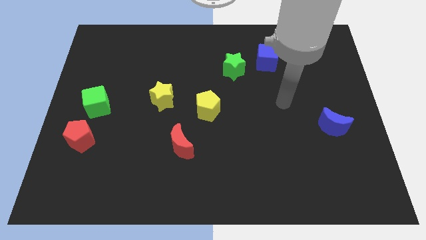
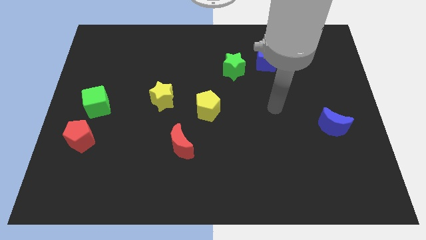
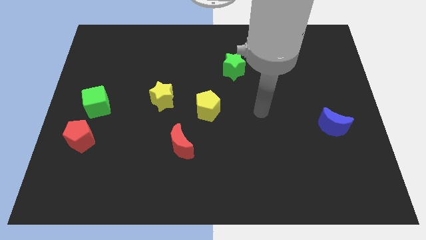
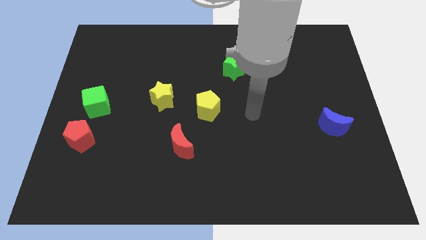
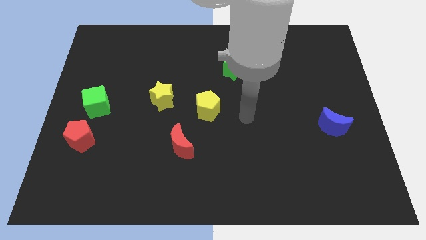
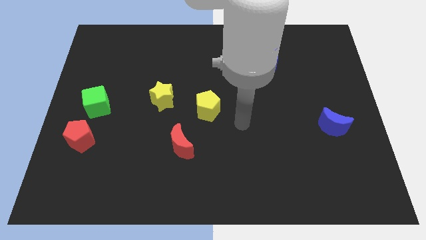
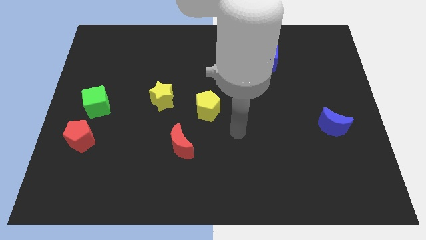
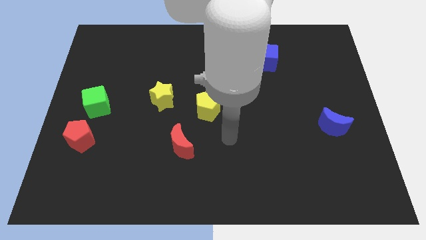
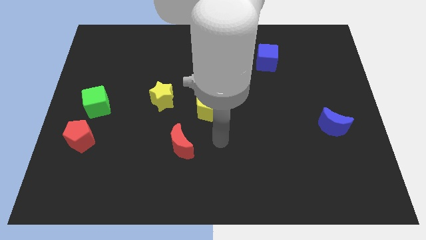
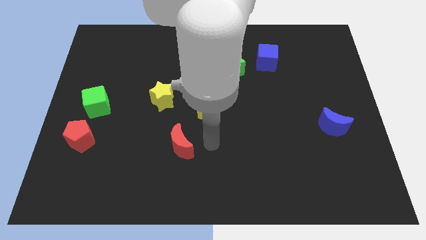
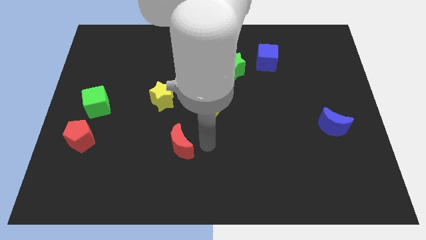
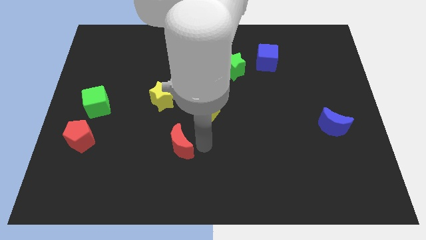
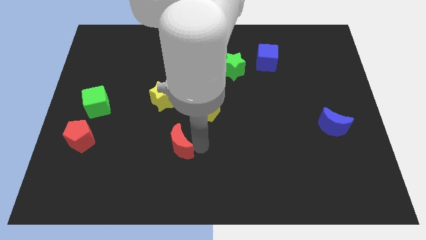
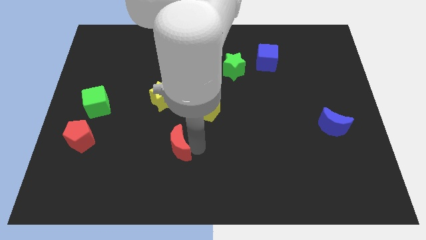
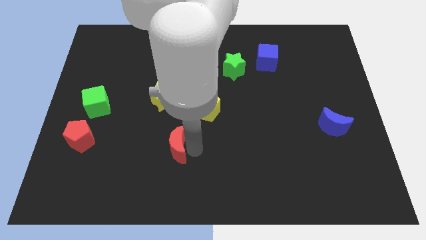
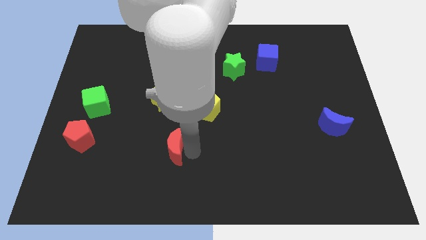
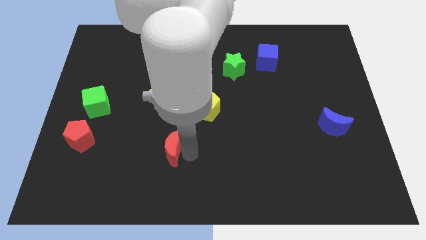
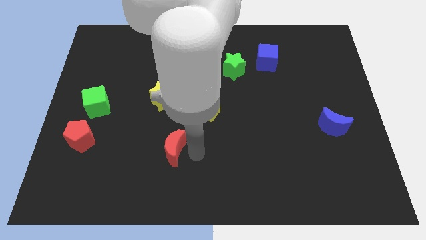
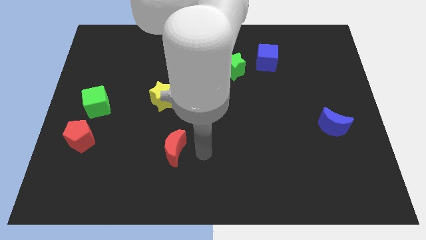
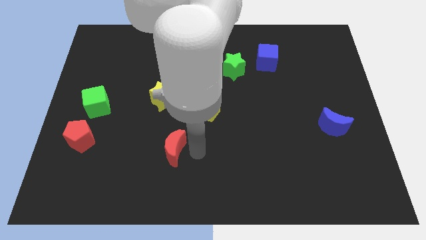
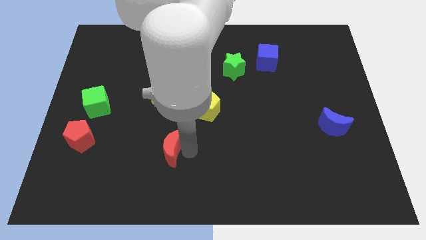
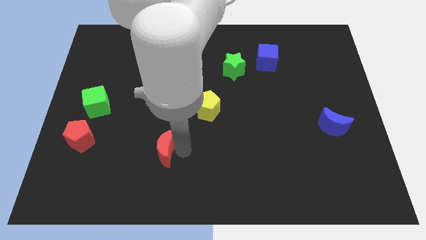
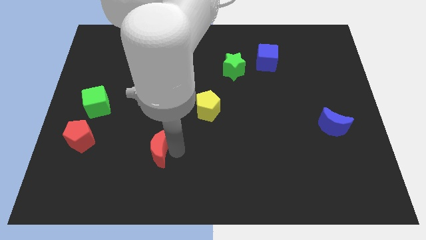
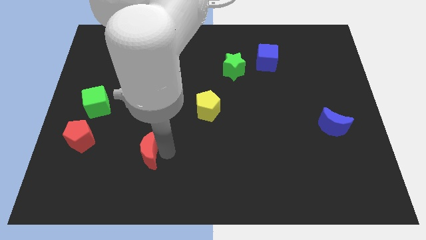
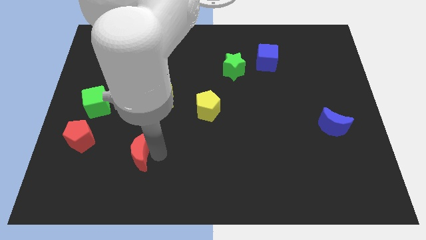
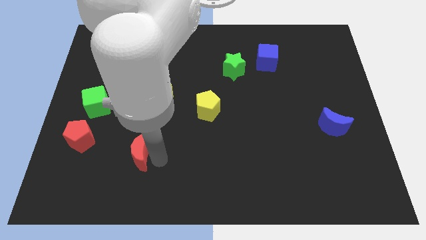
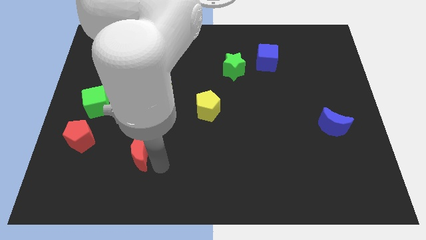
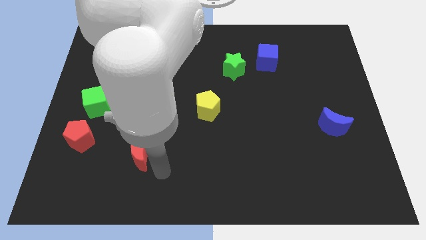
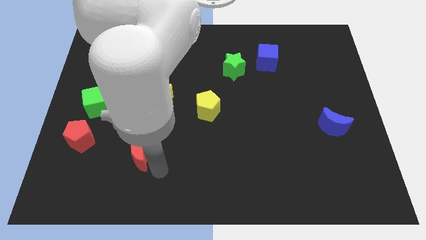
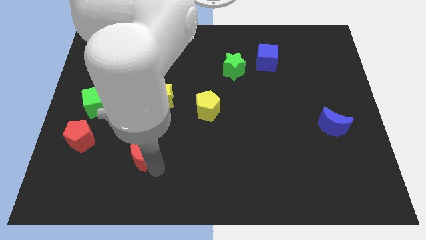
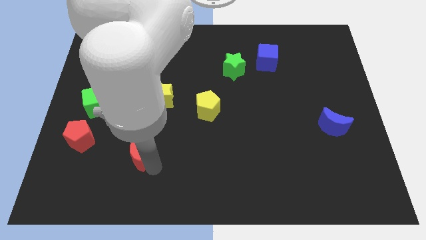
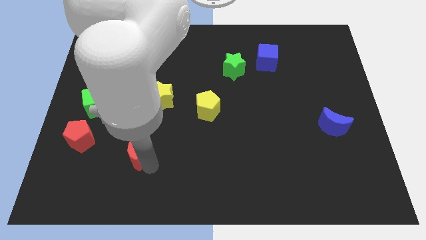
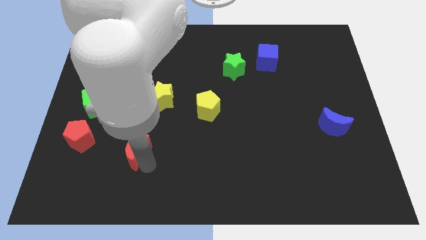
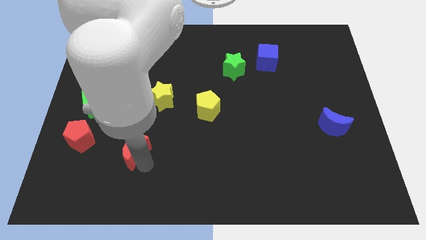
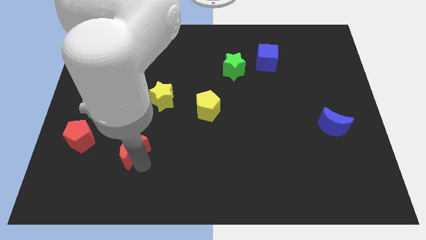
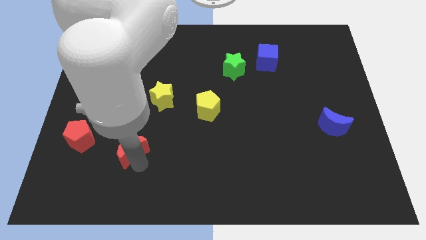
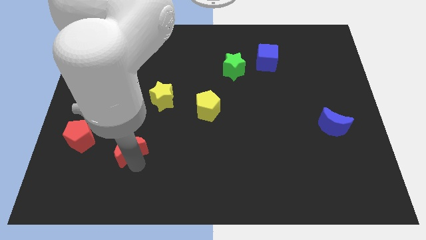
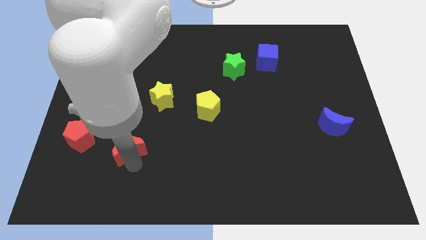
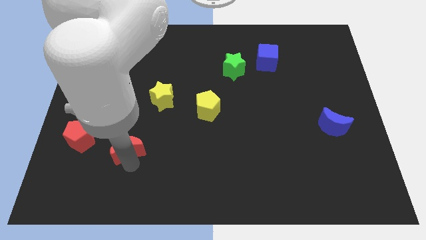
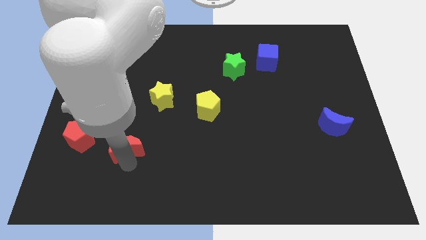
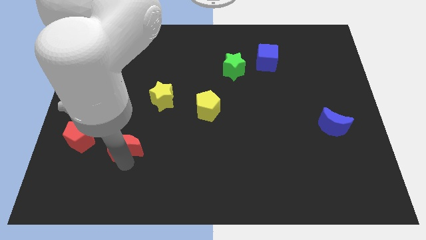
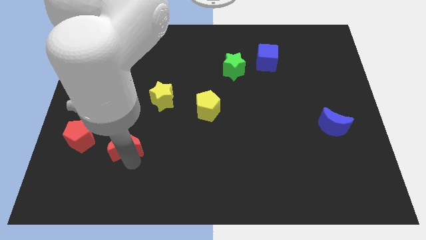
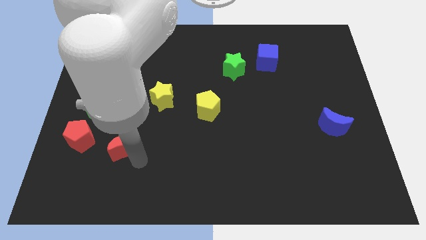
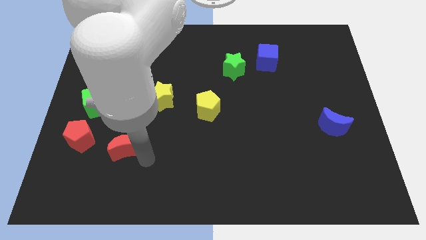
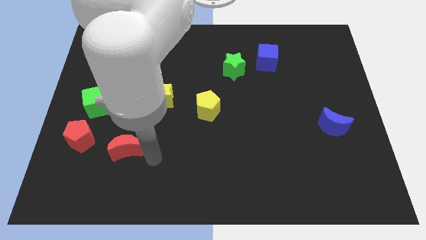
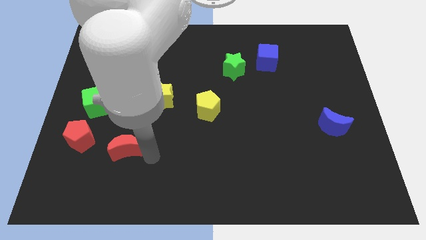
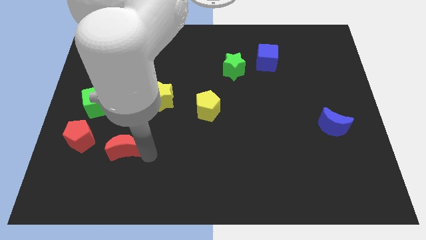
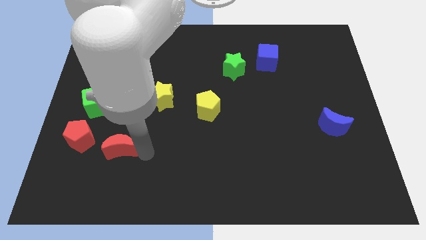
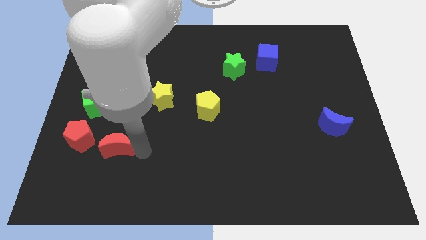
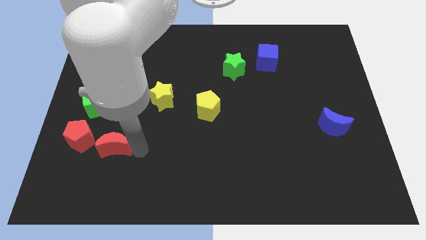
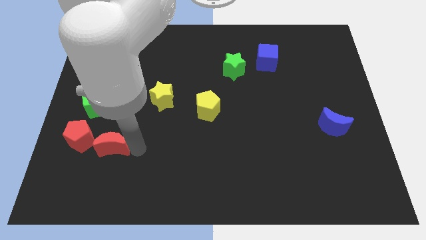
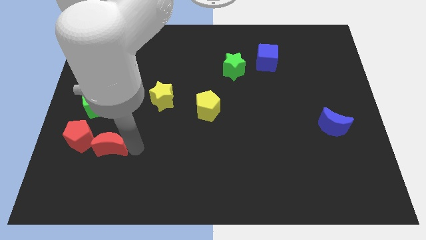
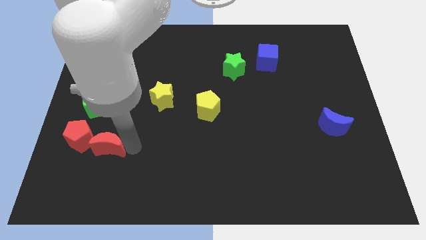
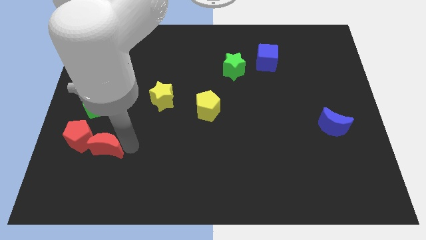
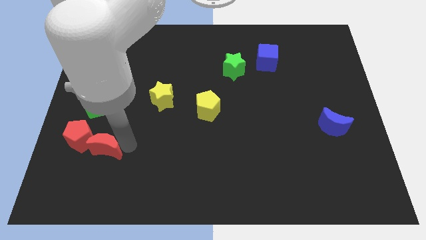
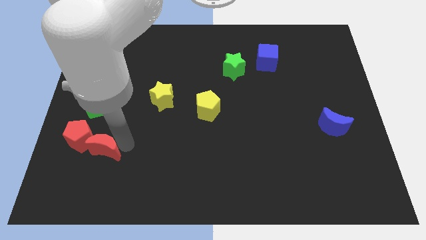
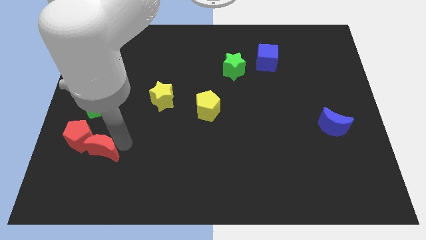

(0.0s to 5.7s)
push the red moon close to the red pentagon

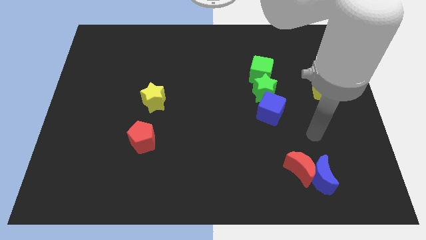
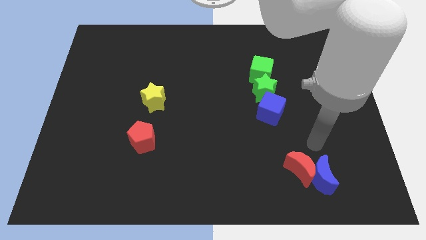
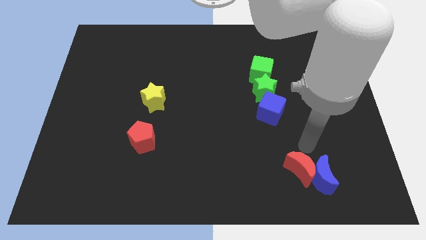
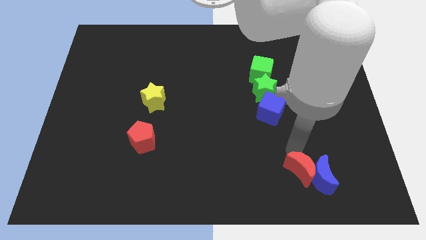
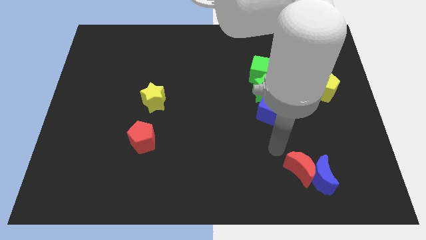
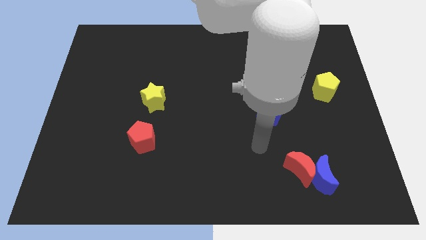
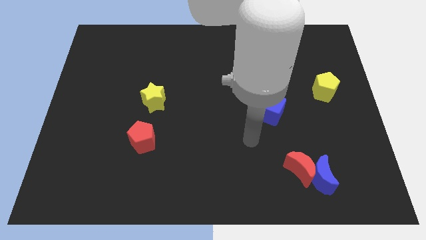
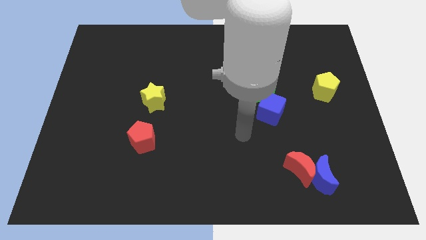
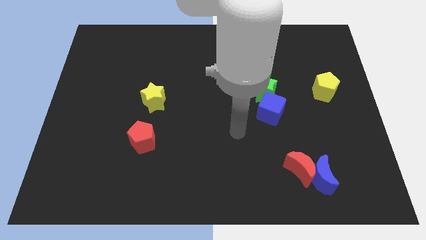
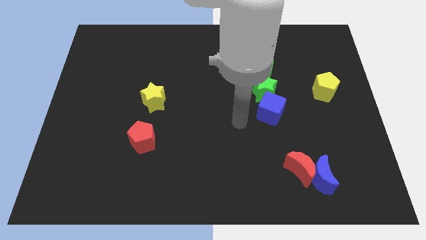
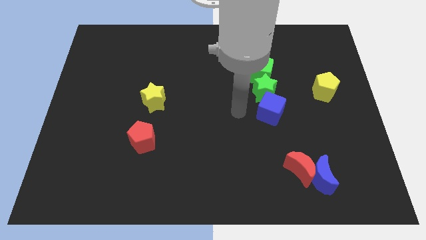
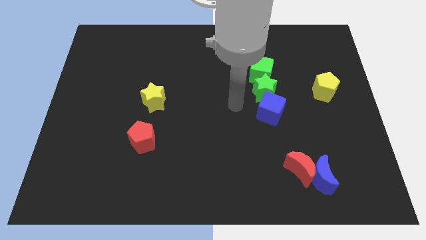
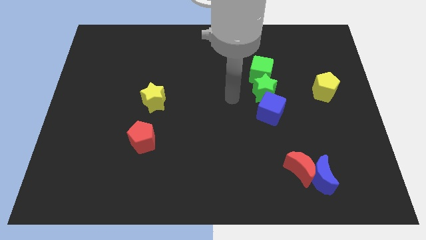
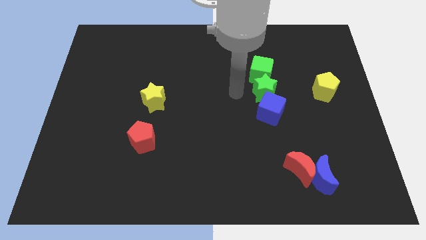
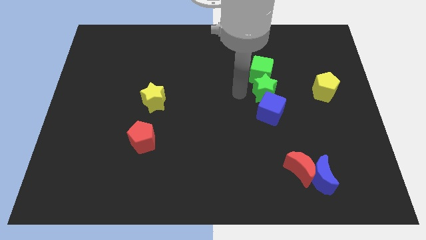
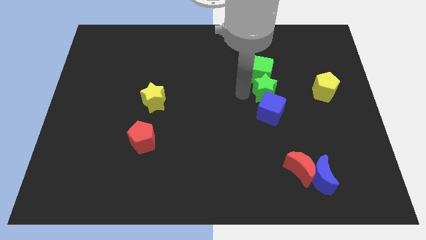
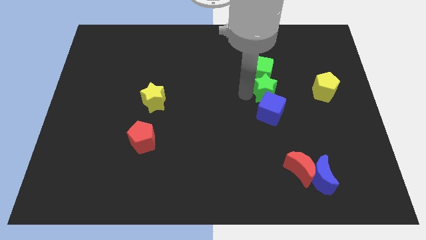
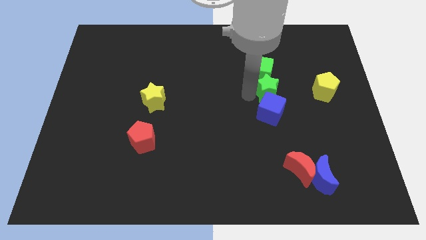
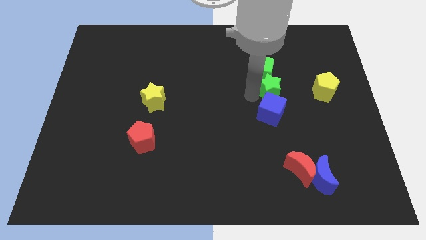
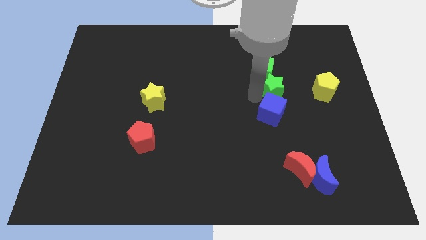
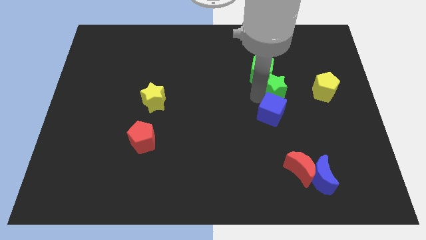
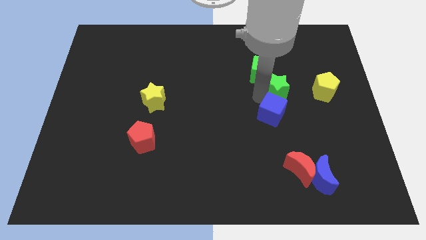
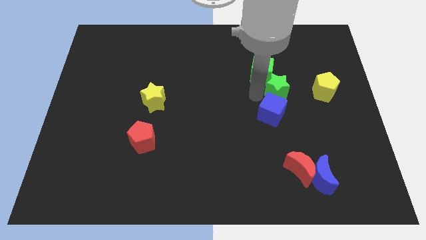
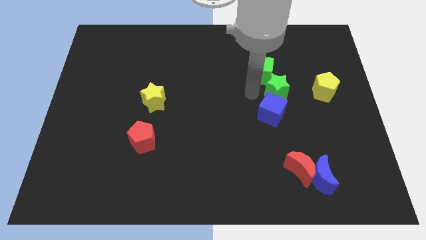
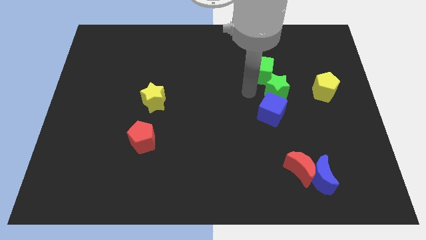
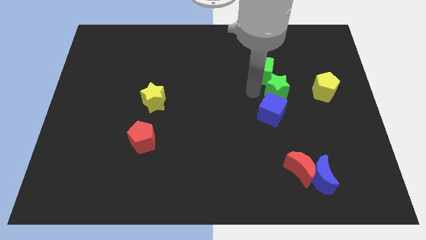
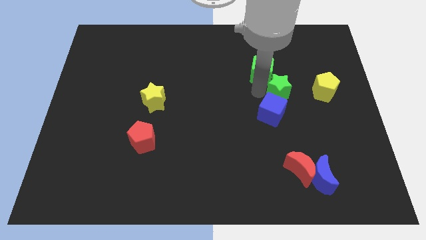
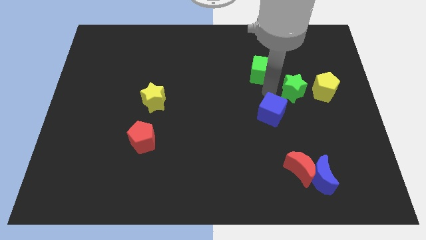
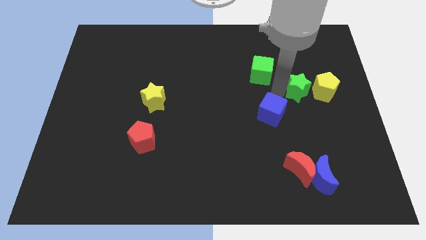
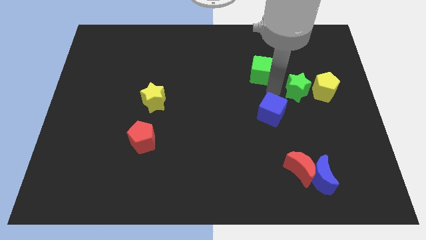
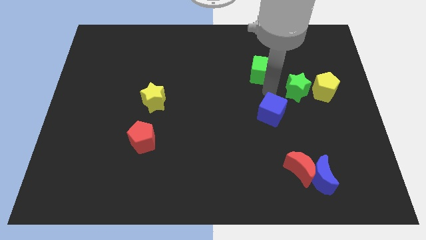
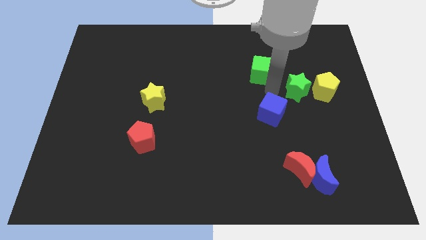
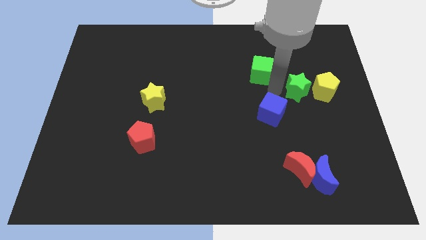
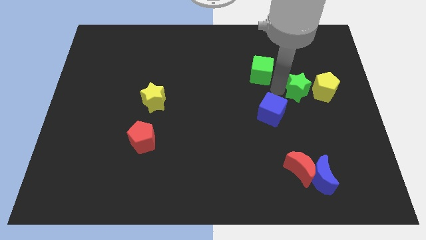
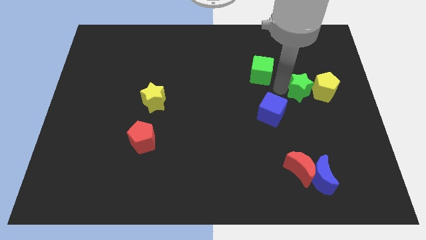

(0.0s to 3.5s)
put the green star next to the yellow pentagon
